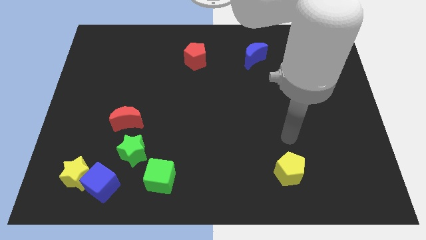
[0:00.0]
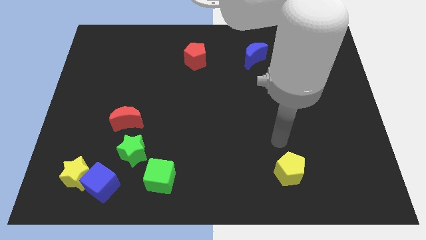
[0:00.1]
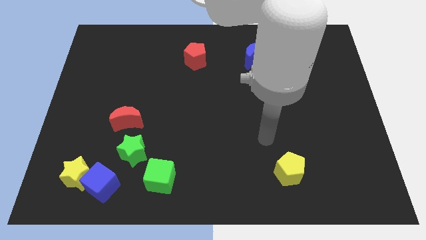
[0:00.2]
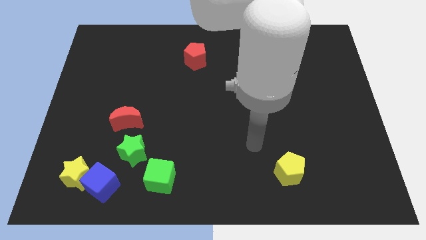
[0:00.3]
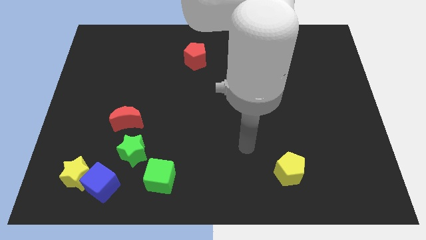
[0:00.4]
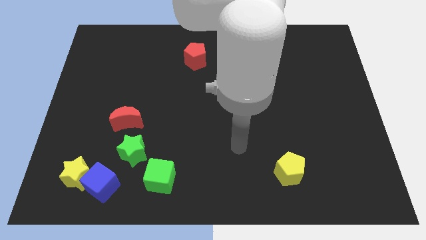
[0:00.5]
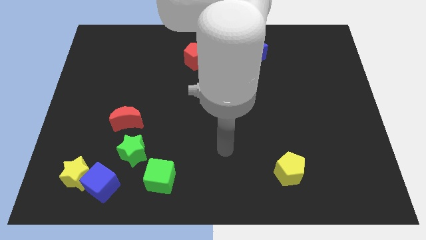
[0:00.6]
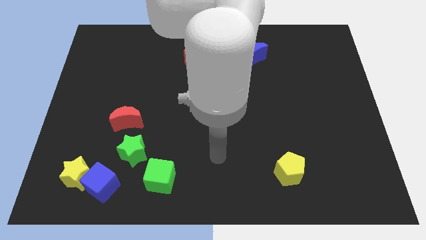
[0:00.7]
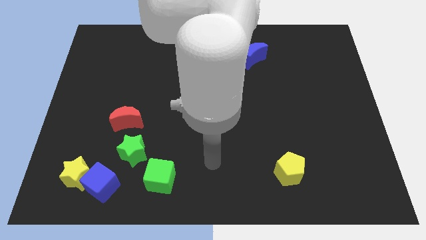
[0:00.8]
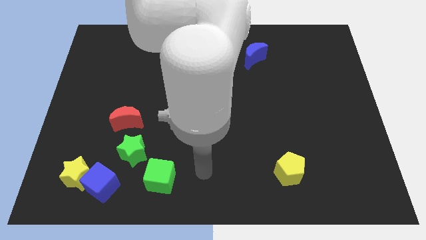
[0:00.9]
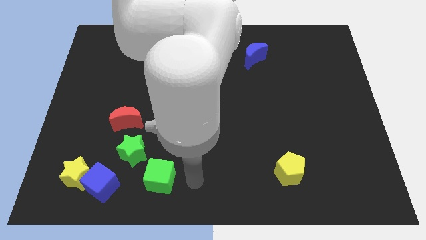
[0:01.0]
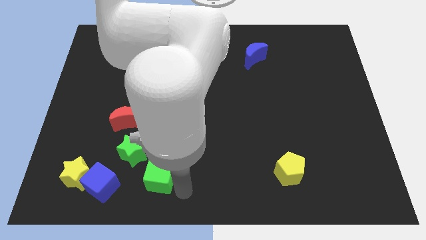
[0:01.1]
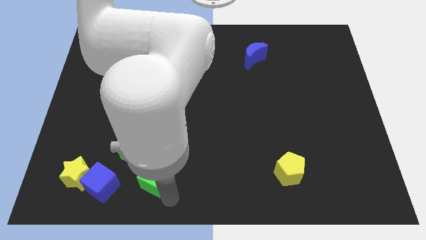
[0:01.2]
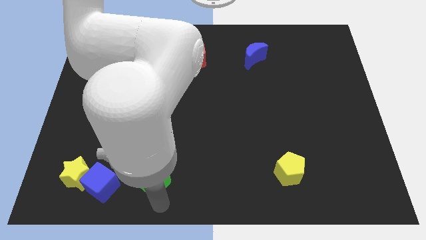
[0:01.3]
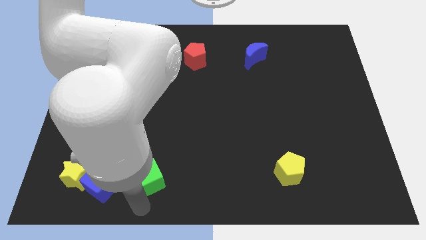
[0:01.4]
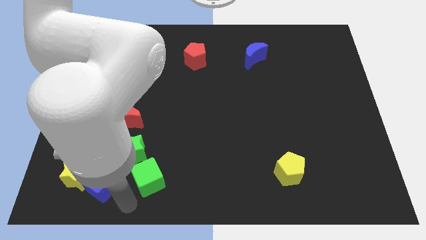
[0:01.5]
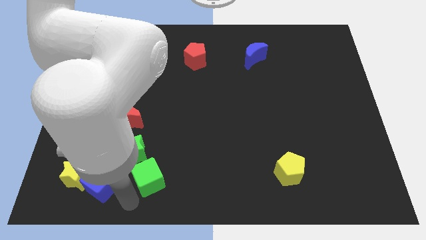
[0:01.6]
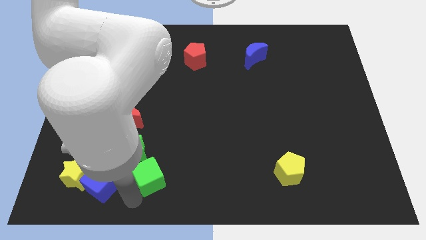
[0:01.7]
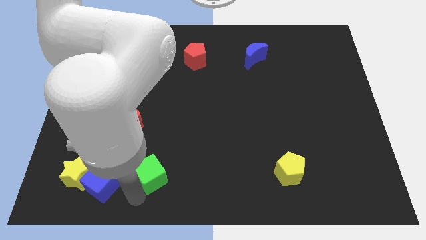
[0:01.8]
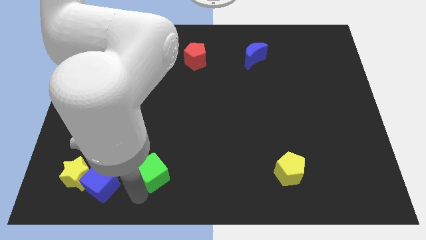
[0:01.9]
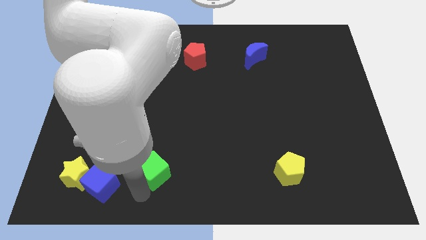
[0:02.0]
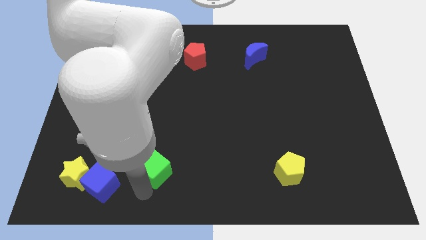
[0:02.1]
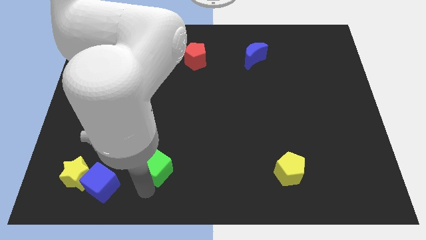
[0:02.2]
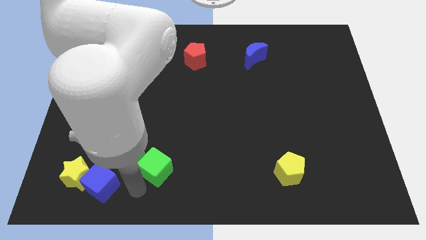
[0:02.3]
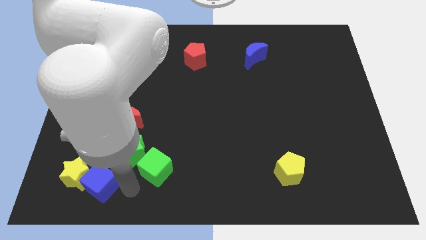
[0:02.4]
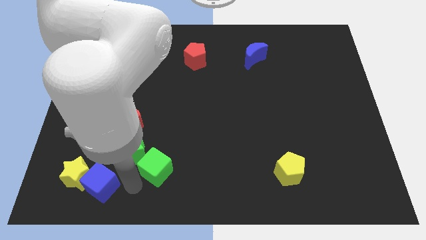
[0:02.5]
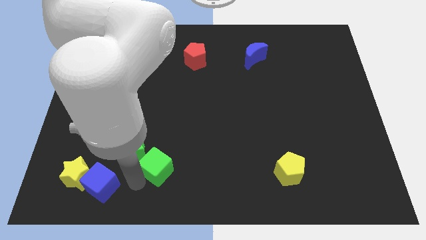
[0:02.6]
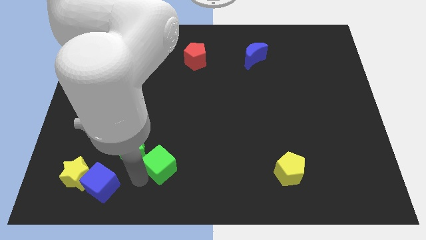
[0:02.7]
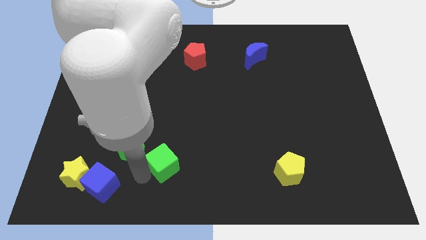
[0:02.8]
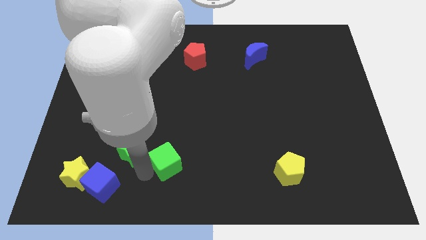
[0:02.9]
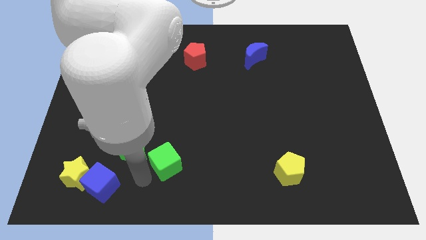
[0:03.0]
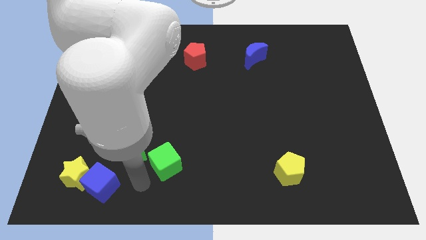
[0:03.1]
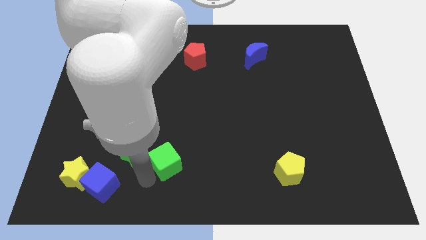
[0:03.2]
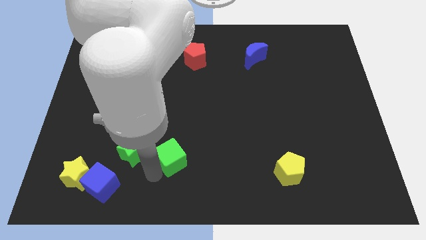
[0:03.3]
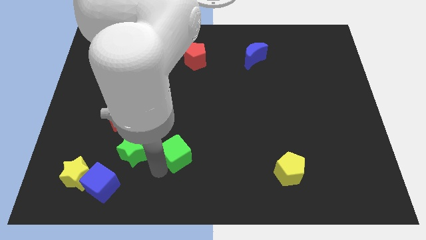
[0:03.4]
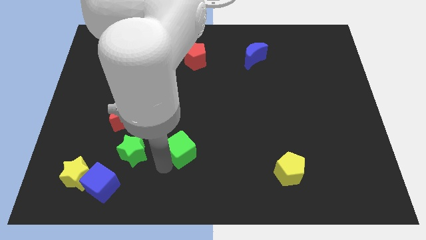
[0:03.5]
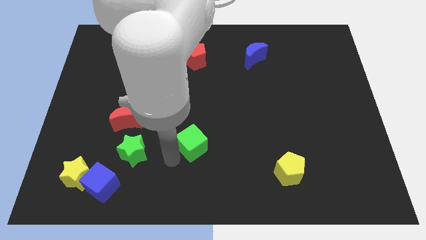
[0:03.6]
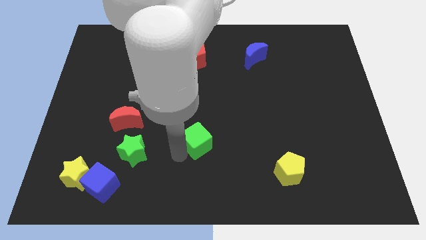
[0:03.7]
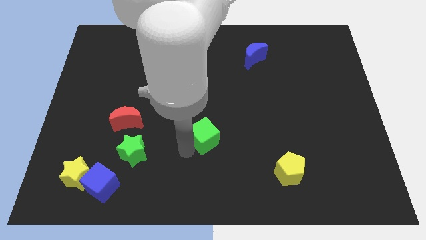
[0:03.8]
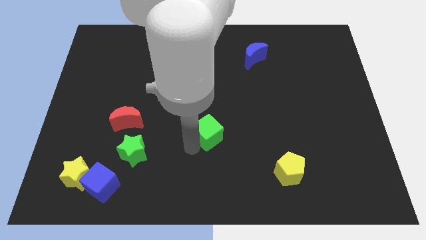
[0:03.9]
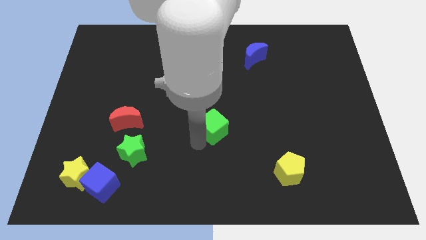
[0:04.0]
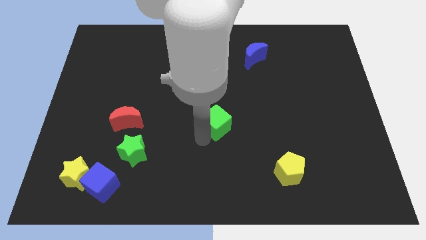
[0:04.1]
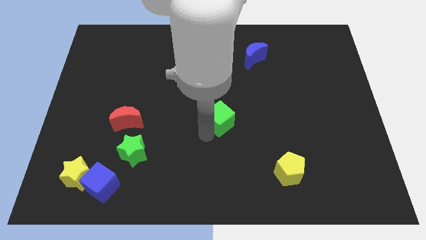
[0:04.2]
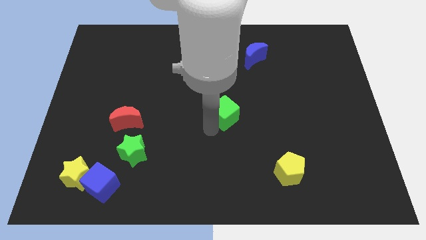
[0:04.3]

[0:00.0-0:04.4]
push the green cube diagonally upwards and right

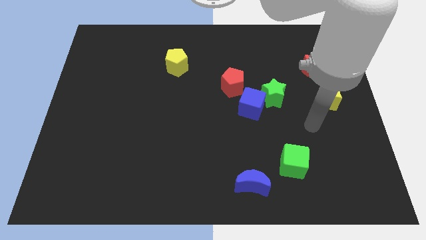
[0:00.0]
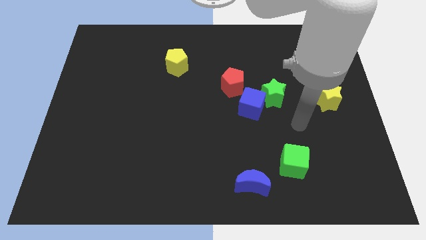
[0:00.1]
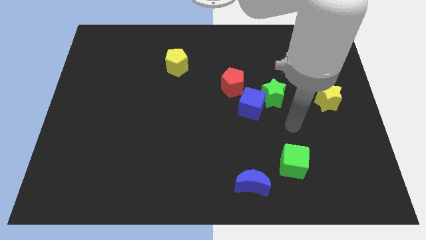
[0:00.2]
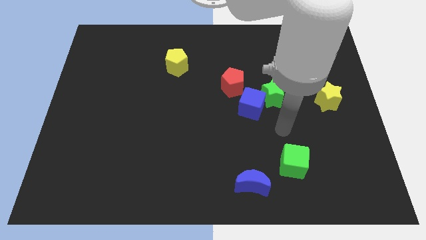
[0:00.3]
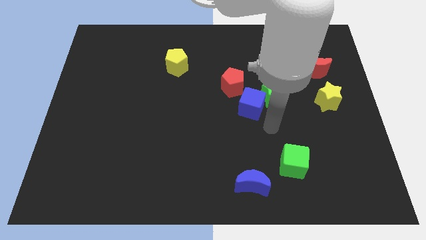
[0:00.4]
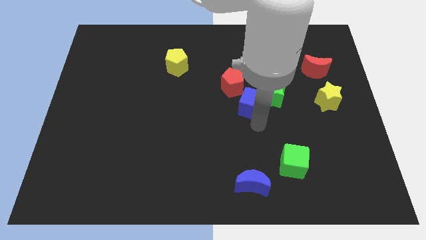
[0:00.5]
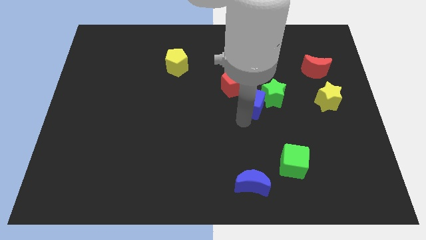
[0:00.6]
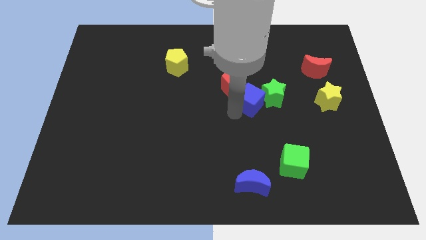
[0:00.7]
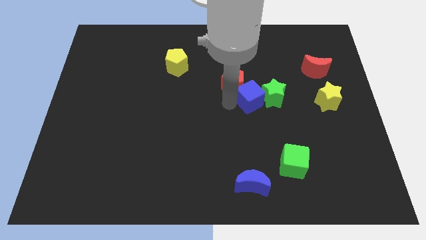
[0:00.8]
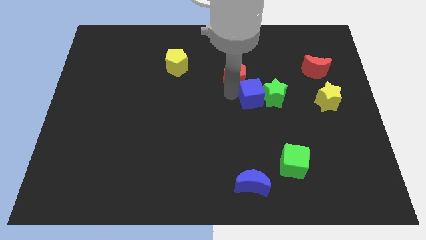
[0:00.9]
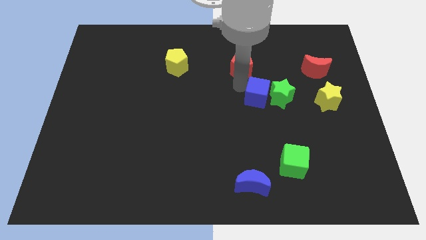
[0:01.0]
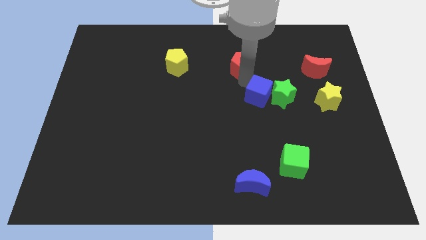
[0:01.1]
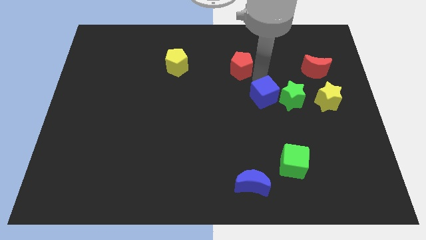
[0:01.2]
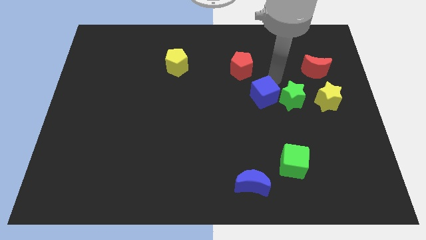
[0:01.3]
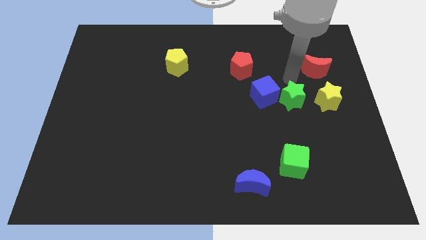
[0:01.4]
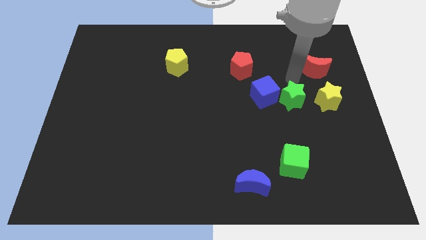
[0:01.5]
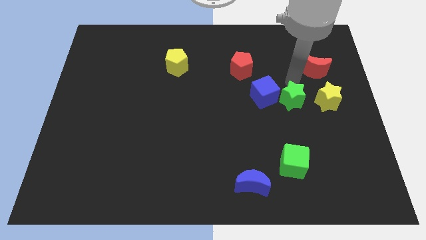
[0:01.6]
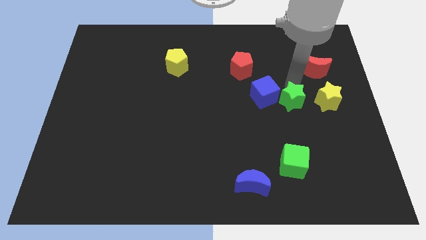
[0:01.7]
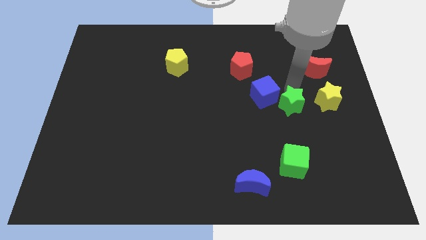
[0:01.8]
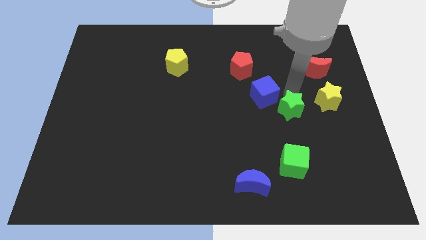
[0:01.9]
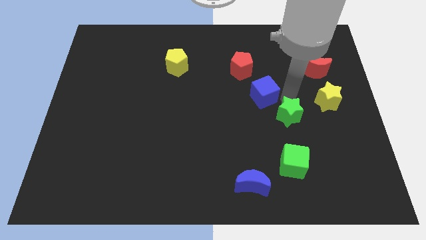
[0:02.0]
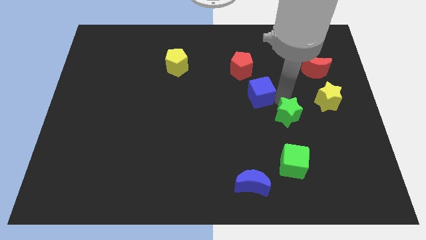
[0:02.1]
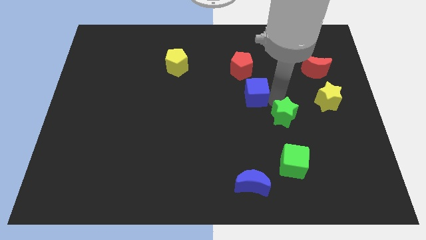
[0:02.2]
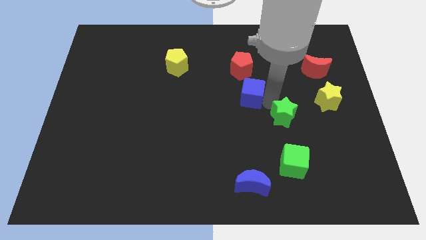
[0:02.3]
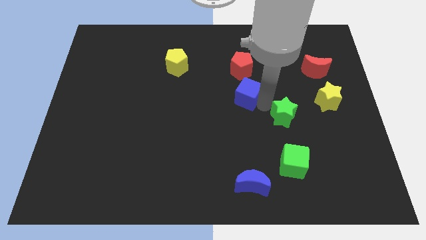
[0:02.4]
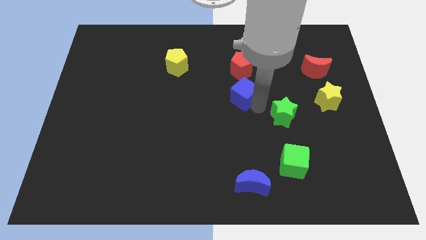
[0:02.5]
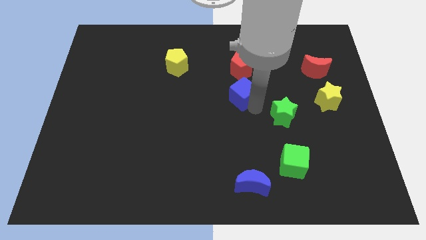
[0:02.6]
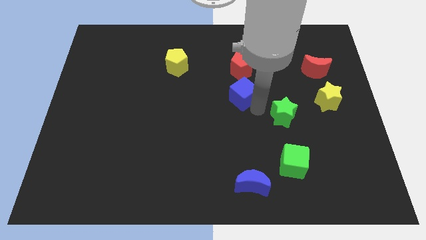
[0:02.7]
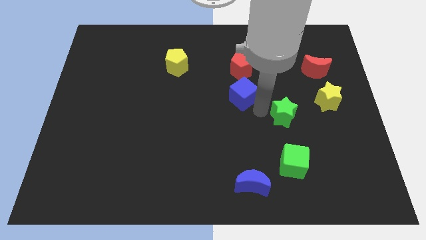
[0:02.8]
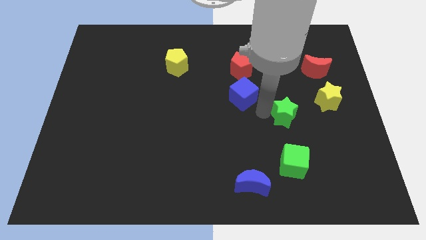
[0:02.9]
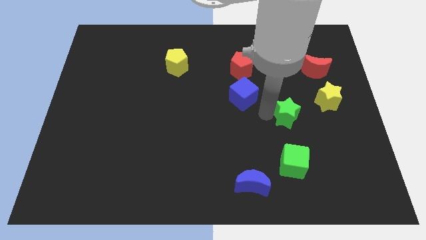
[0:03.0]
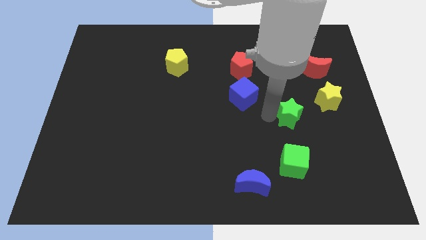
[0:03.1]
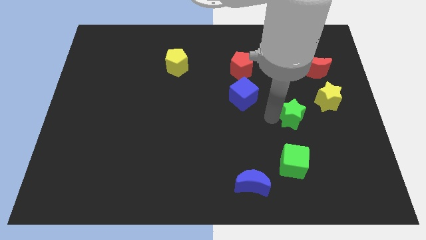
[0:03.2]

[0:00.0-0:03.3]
move the green star diagonally downwards and right somewhat
